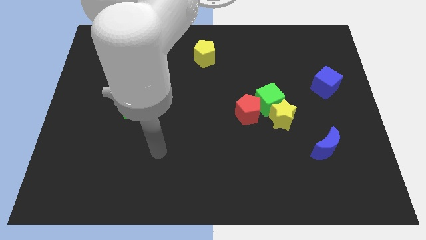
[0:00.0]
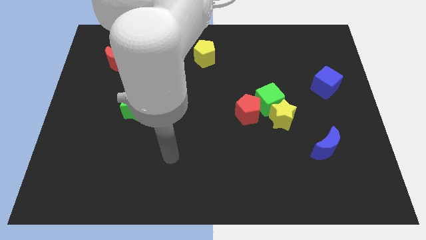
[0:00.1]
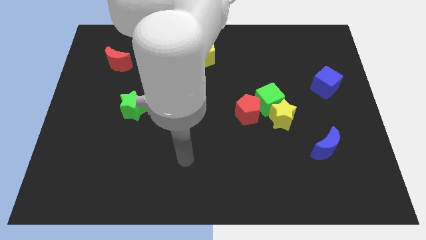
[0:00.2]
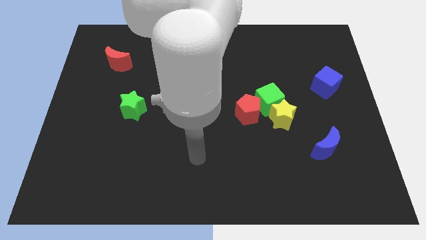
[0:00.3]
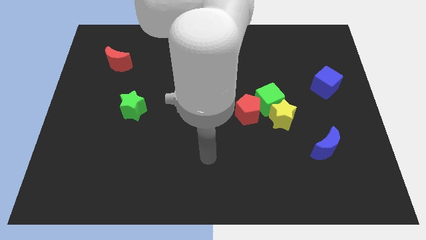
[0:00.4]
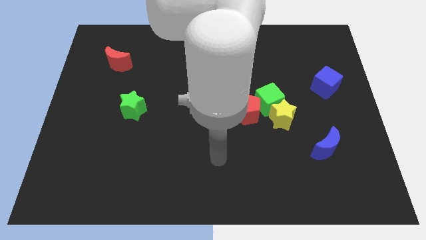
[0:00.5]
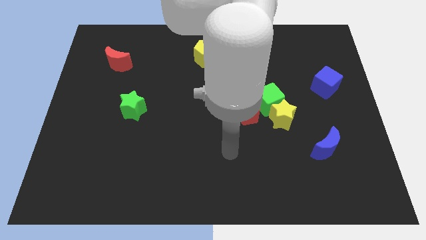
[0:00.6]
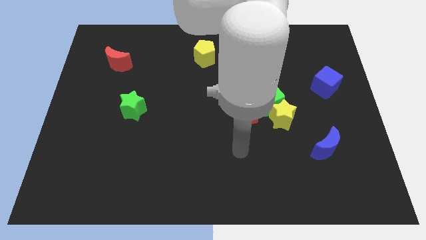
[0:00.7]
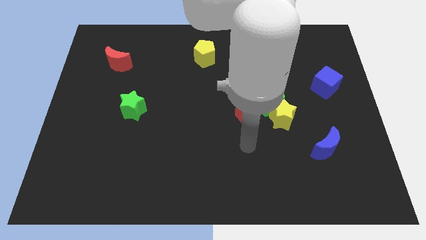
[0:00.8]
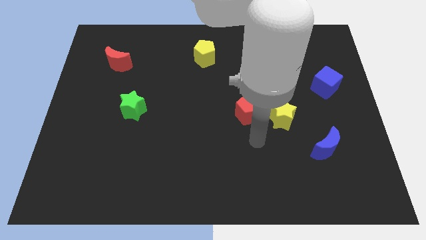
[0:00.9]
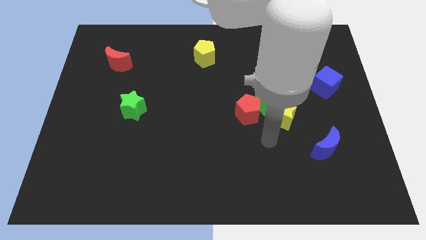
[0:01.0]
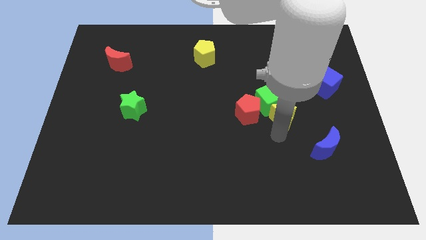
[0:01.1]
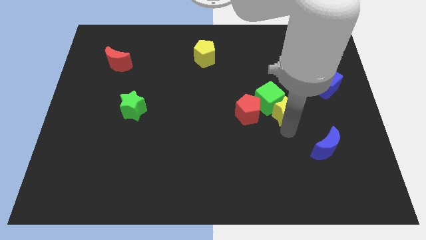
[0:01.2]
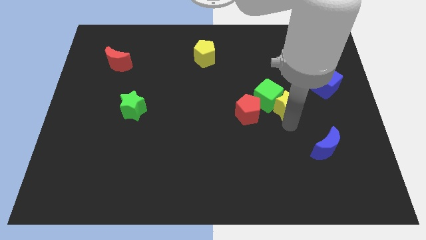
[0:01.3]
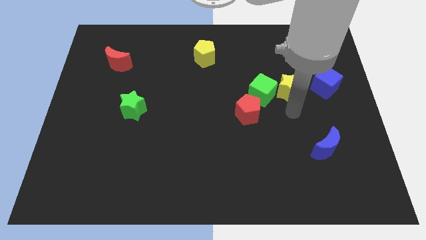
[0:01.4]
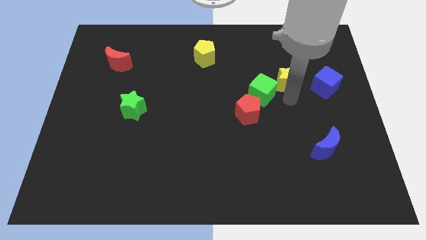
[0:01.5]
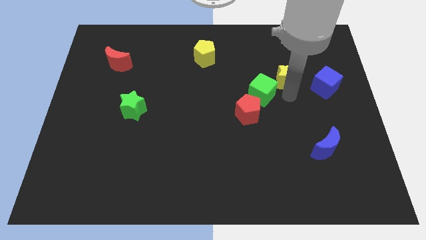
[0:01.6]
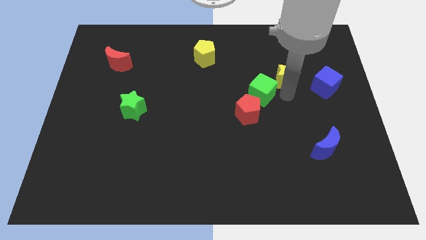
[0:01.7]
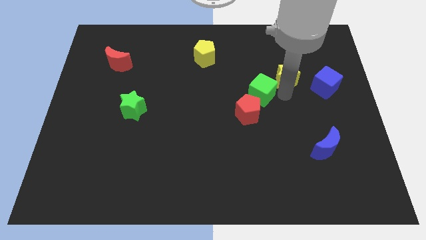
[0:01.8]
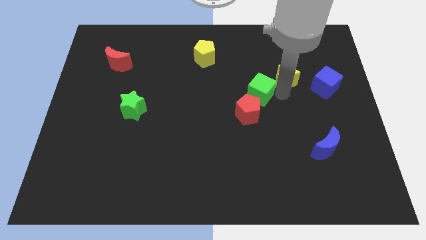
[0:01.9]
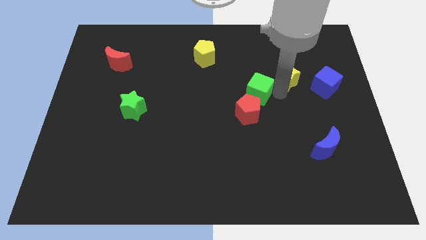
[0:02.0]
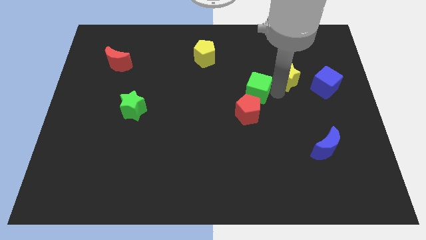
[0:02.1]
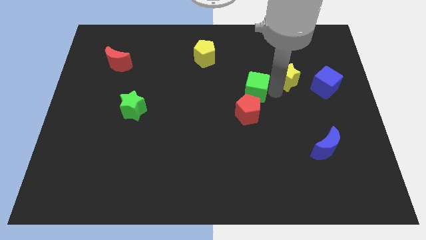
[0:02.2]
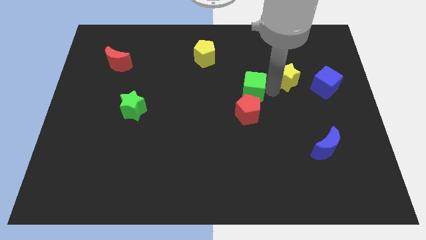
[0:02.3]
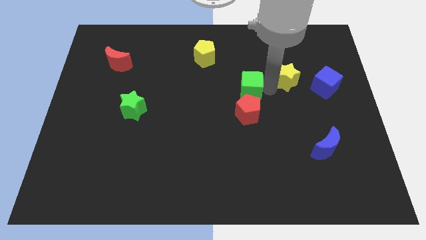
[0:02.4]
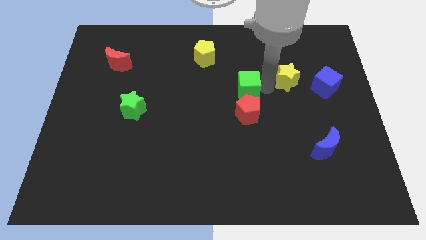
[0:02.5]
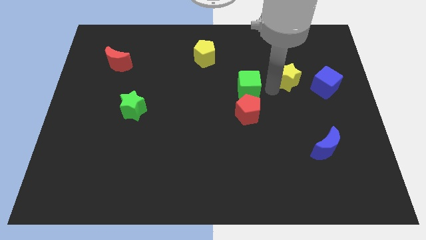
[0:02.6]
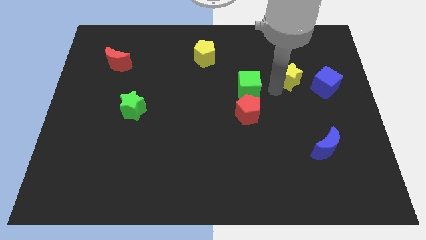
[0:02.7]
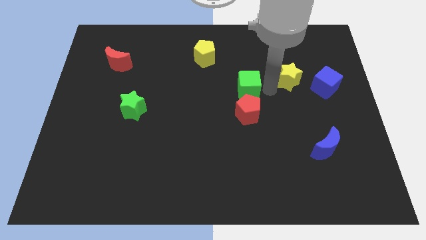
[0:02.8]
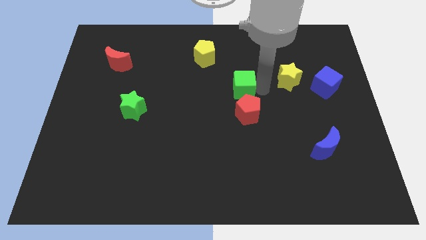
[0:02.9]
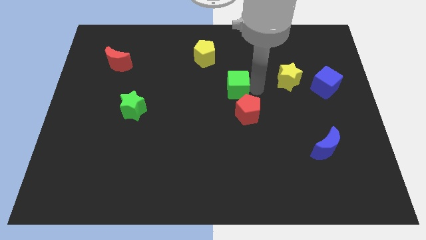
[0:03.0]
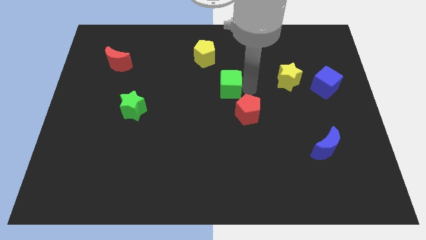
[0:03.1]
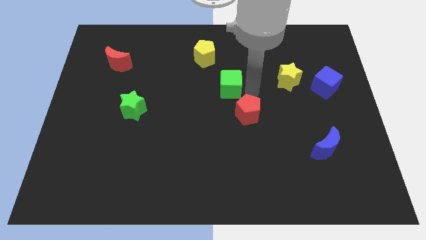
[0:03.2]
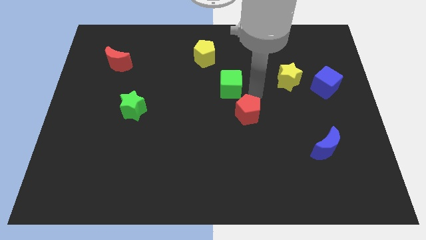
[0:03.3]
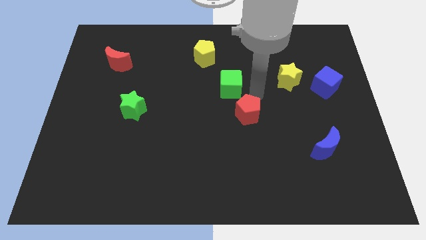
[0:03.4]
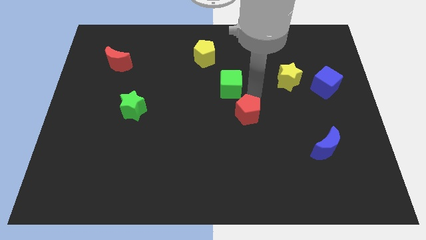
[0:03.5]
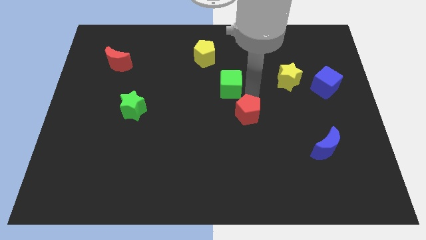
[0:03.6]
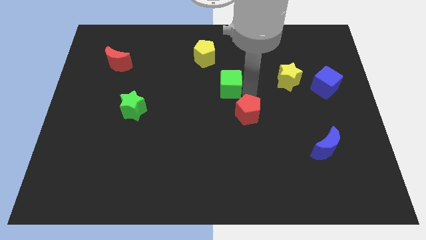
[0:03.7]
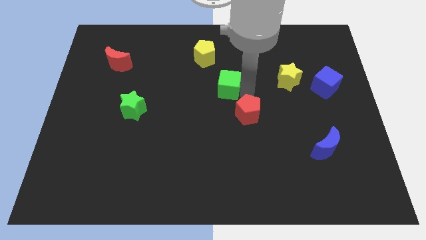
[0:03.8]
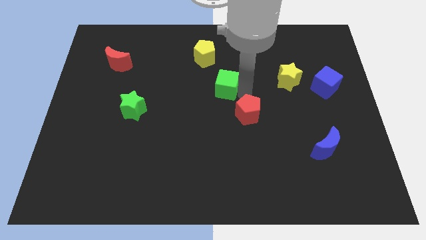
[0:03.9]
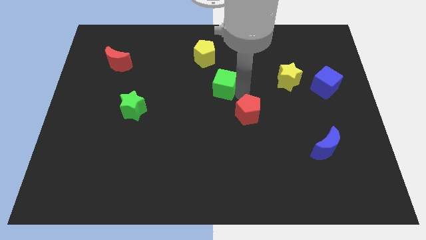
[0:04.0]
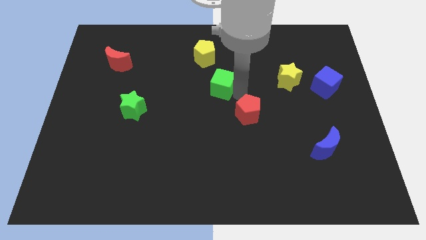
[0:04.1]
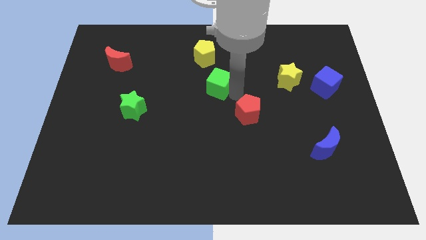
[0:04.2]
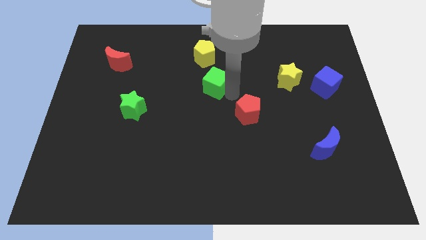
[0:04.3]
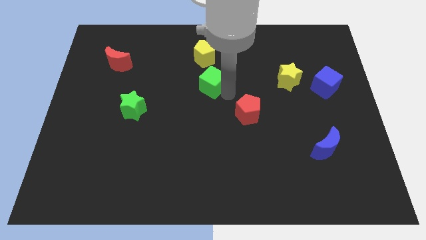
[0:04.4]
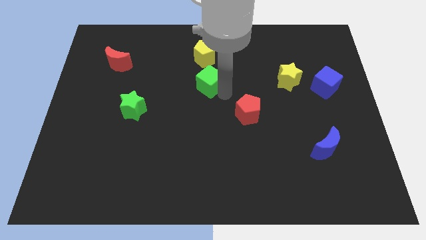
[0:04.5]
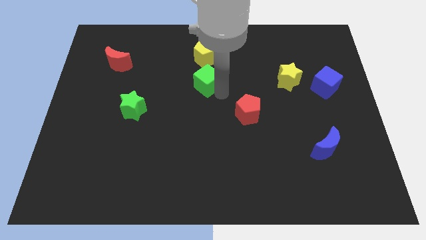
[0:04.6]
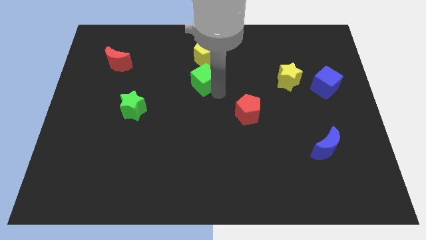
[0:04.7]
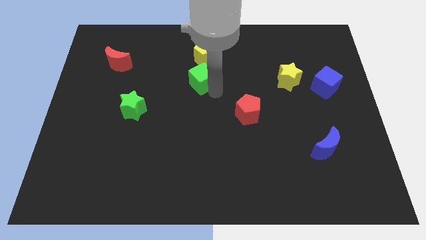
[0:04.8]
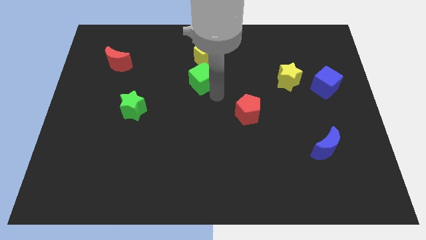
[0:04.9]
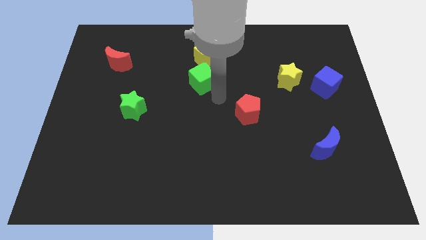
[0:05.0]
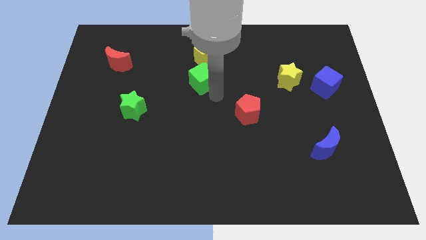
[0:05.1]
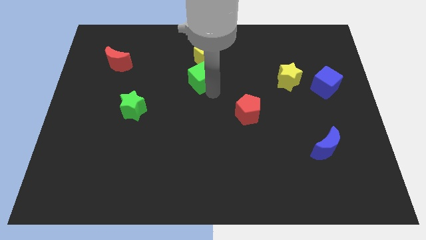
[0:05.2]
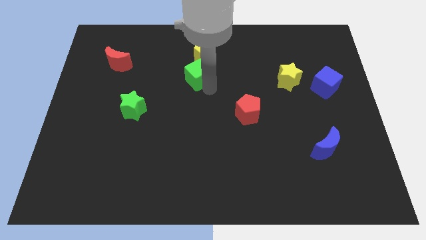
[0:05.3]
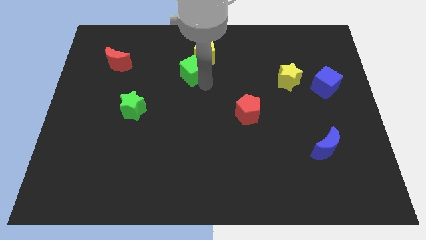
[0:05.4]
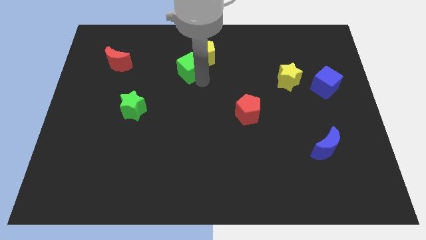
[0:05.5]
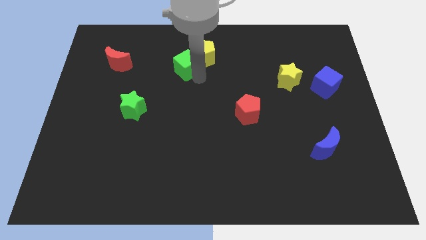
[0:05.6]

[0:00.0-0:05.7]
put the green cube left of the yellow pentagon

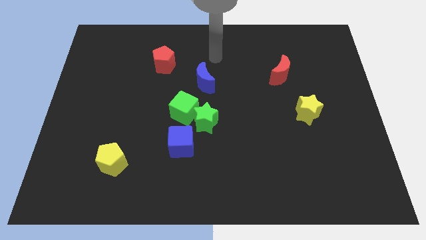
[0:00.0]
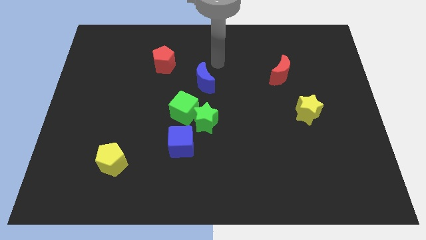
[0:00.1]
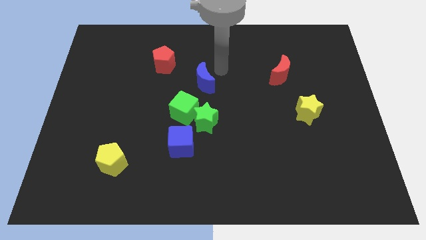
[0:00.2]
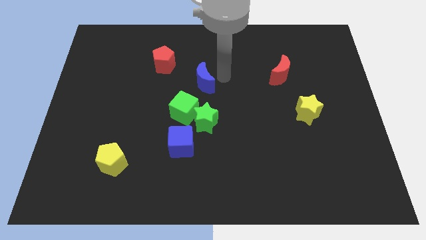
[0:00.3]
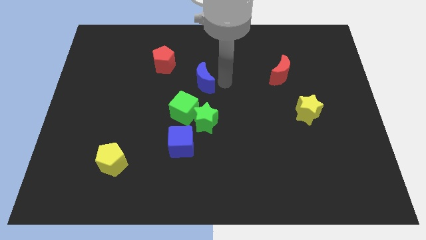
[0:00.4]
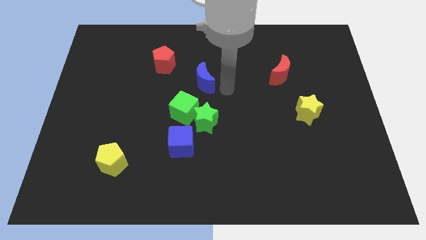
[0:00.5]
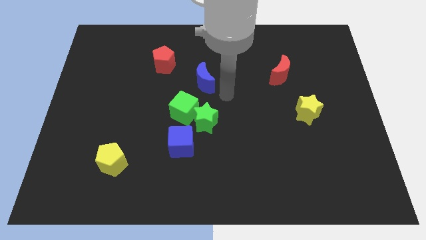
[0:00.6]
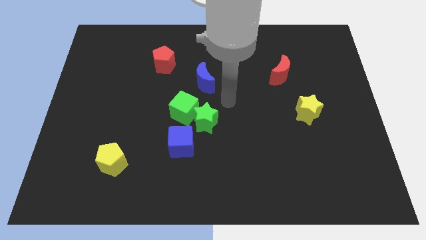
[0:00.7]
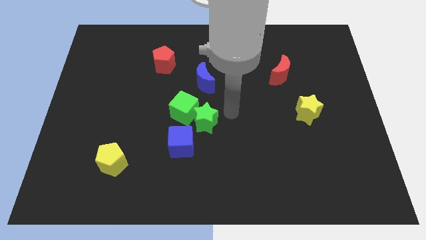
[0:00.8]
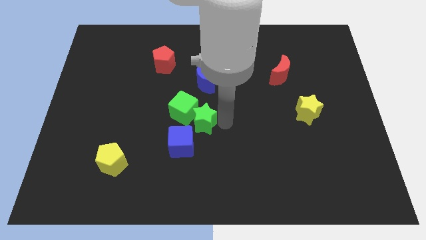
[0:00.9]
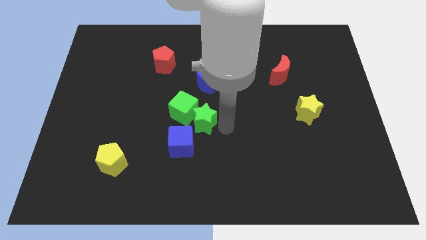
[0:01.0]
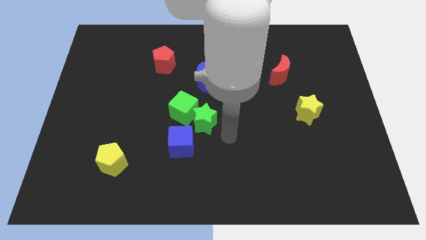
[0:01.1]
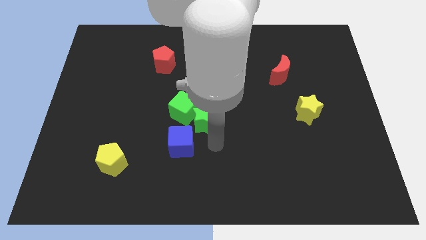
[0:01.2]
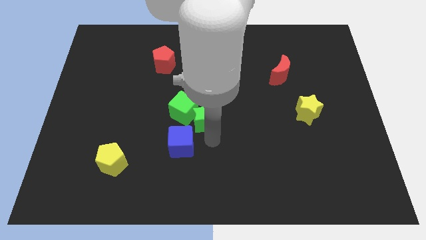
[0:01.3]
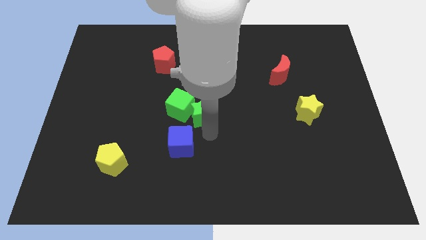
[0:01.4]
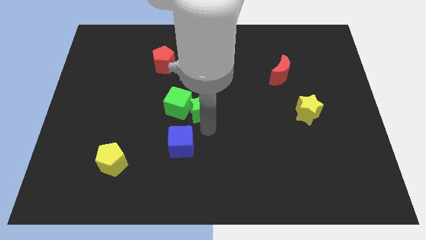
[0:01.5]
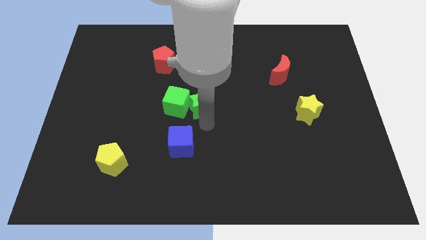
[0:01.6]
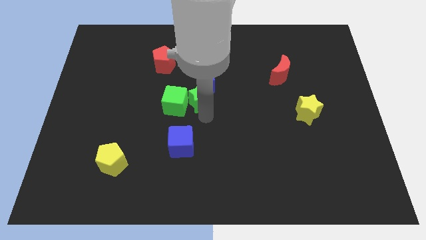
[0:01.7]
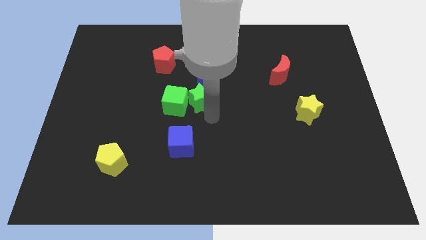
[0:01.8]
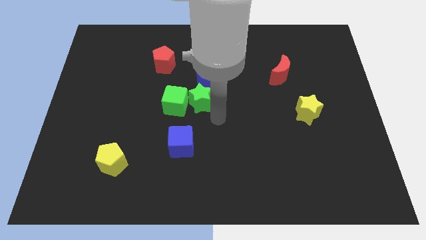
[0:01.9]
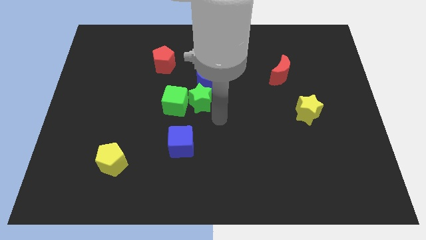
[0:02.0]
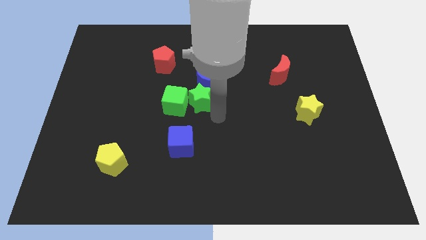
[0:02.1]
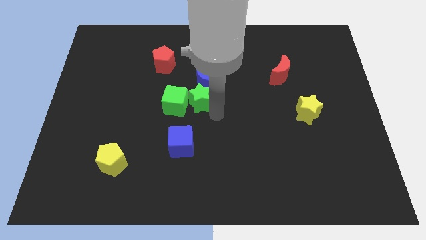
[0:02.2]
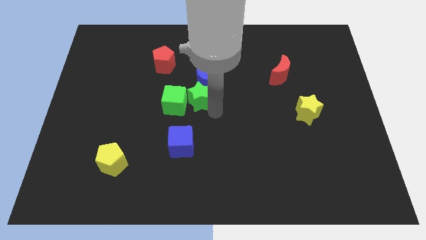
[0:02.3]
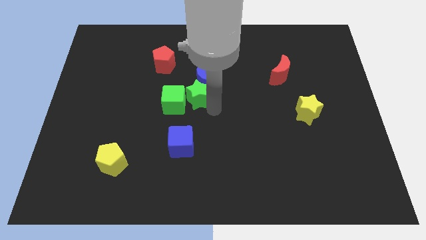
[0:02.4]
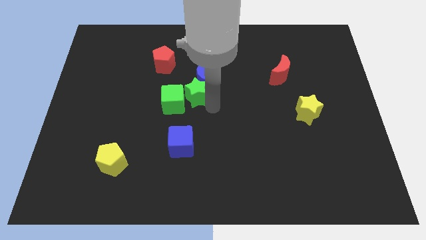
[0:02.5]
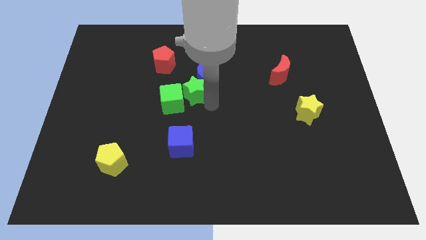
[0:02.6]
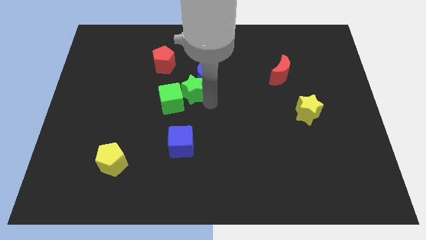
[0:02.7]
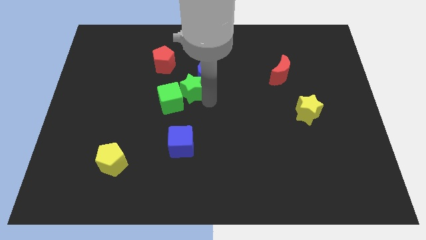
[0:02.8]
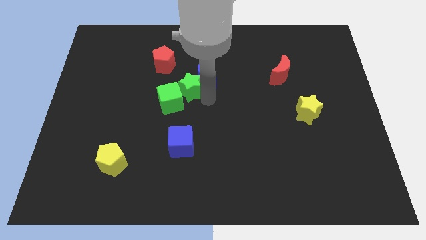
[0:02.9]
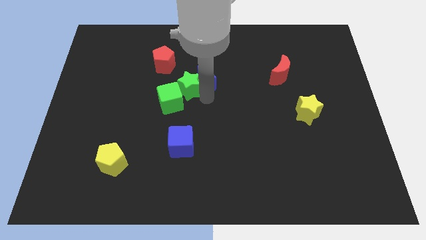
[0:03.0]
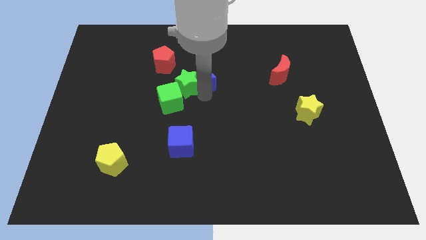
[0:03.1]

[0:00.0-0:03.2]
put the green star to the top left of the blue moon
